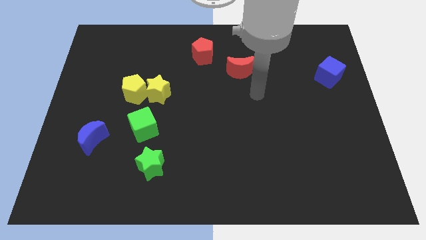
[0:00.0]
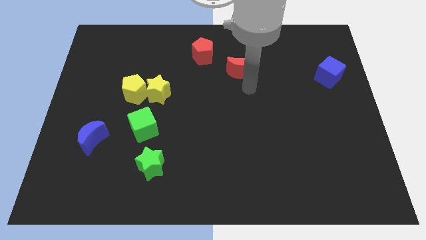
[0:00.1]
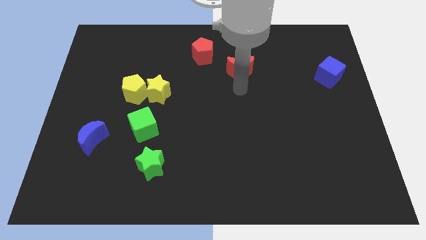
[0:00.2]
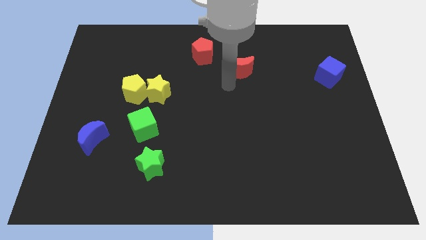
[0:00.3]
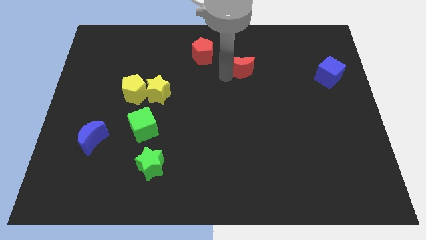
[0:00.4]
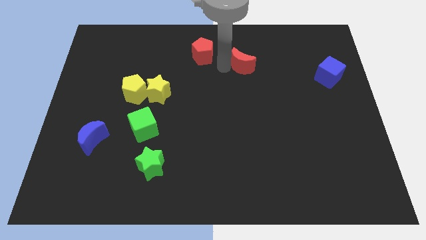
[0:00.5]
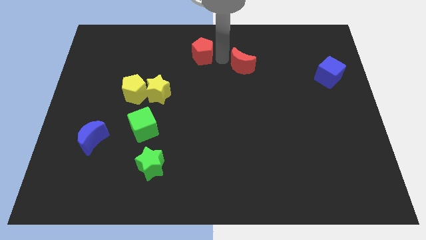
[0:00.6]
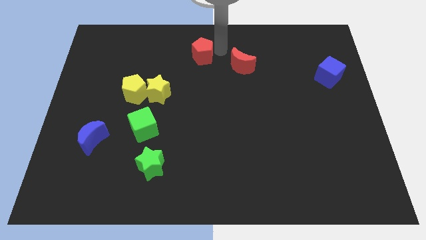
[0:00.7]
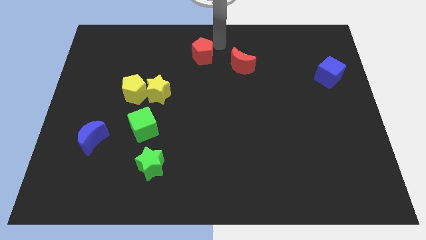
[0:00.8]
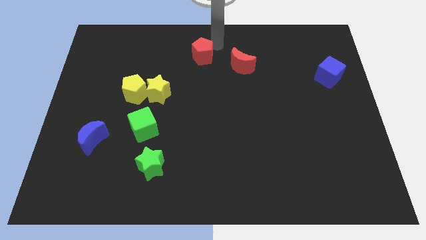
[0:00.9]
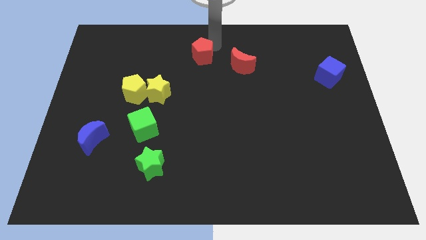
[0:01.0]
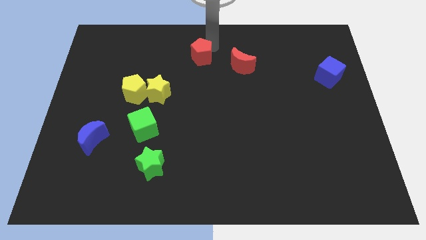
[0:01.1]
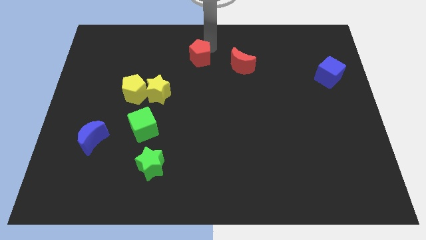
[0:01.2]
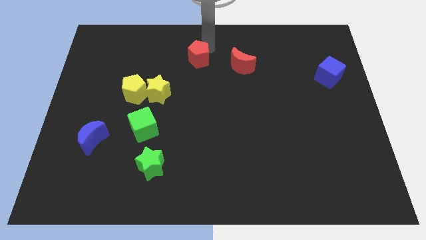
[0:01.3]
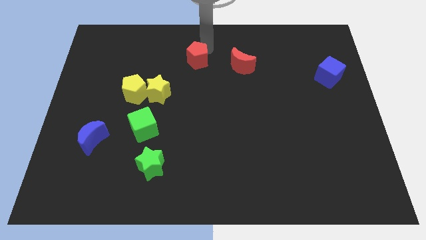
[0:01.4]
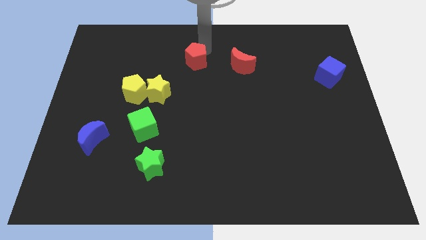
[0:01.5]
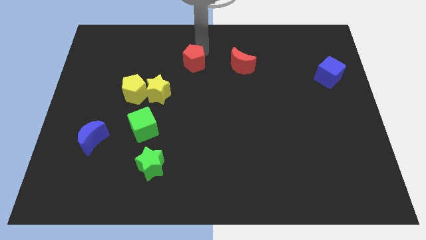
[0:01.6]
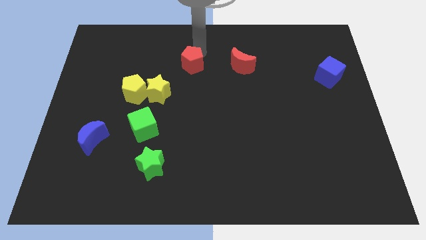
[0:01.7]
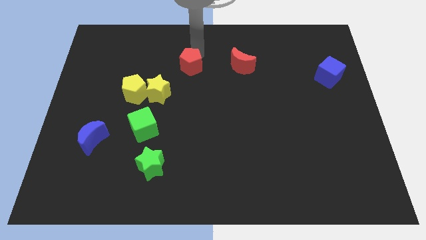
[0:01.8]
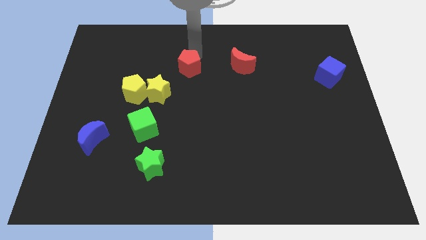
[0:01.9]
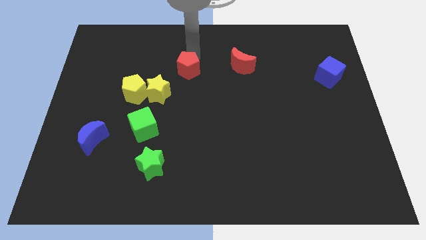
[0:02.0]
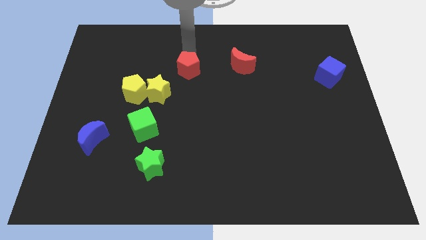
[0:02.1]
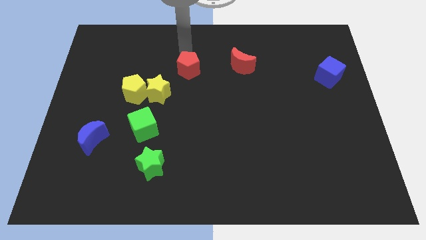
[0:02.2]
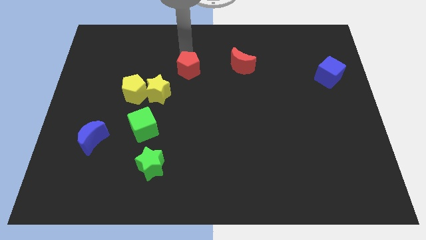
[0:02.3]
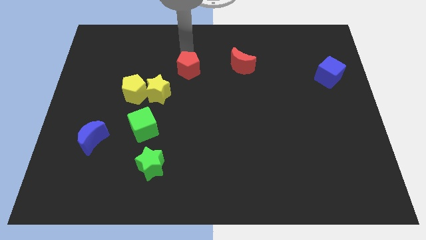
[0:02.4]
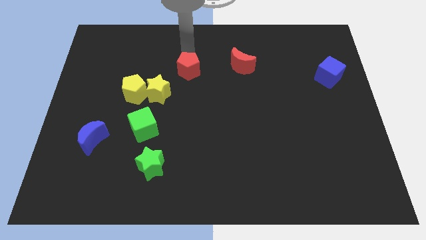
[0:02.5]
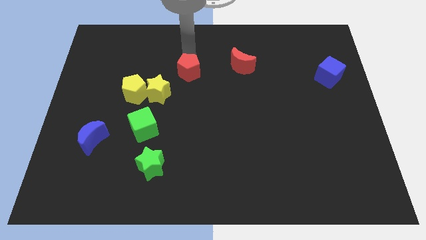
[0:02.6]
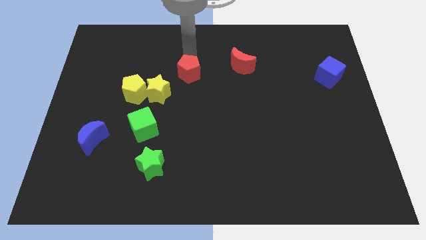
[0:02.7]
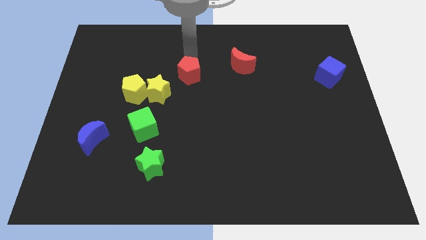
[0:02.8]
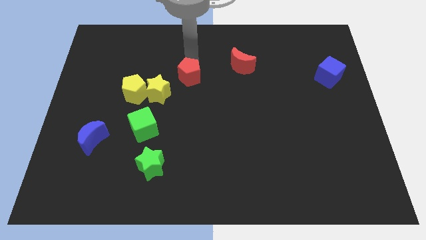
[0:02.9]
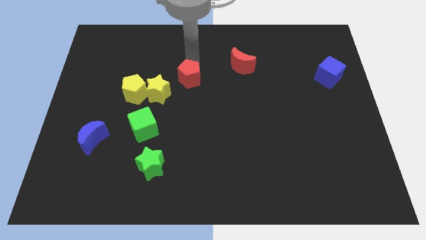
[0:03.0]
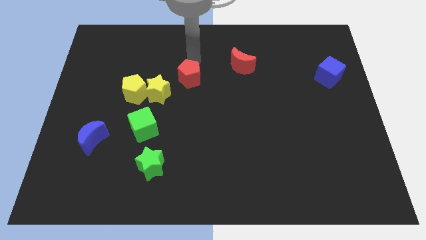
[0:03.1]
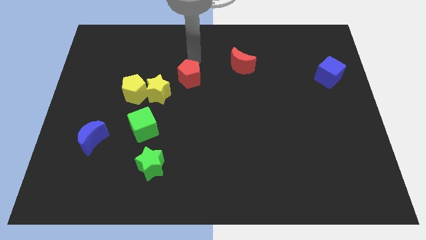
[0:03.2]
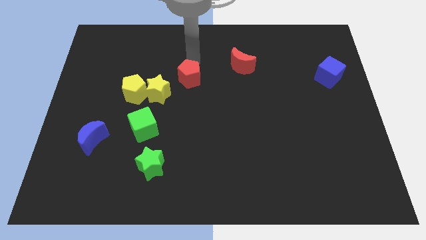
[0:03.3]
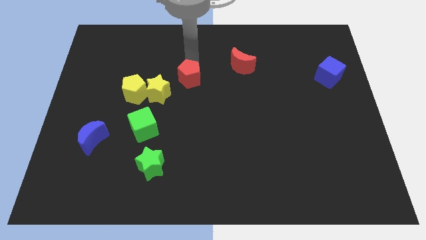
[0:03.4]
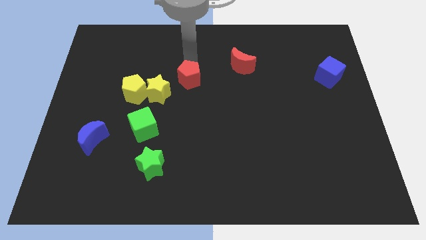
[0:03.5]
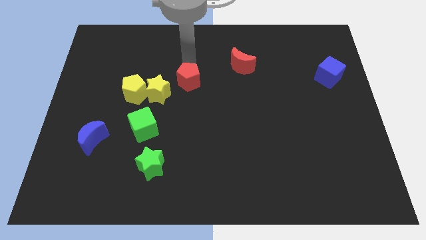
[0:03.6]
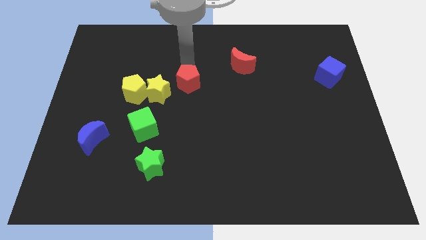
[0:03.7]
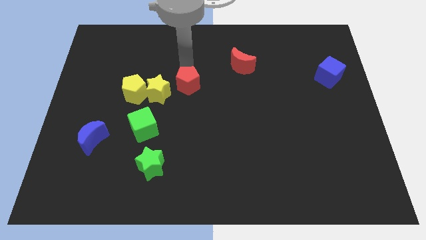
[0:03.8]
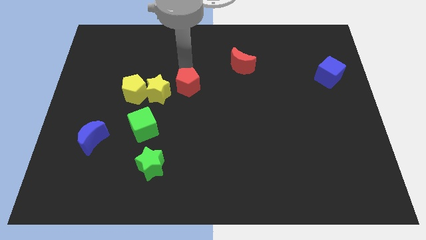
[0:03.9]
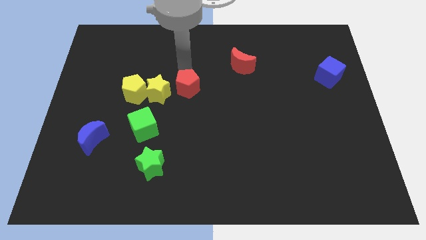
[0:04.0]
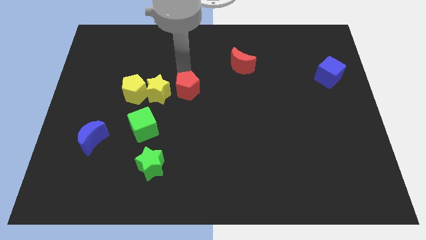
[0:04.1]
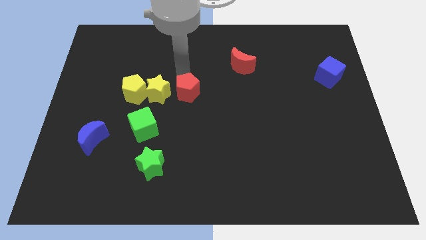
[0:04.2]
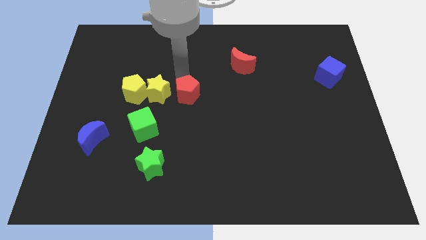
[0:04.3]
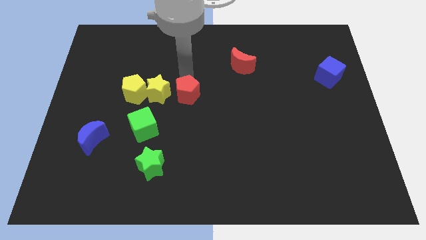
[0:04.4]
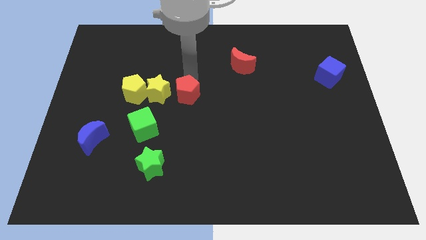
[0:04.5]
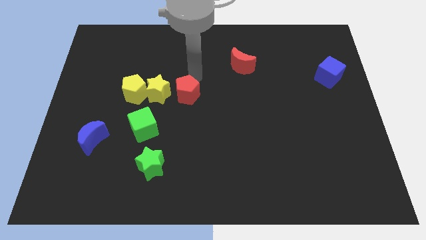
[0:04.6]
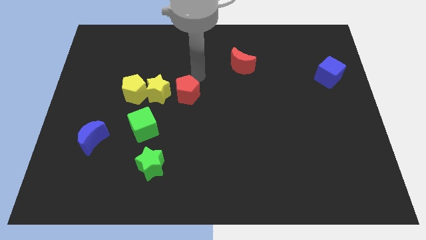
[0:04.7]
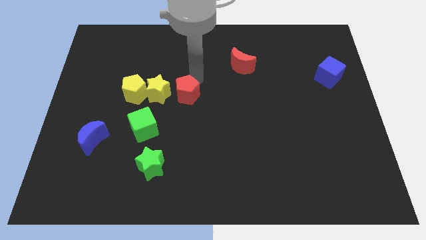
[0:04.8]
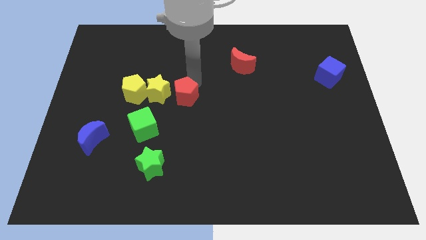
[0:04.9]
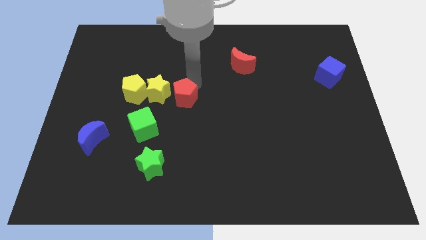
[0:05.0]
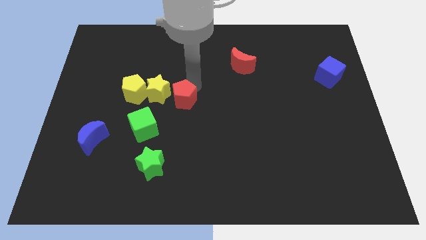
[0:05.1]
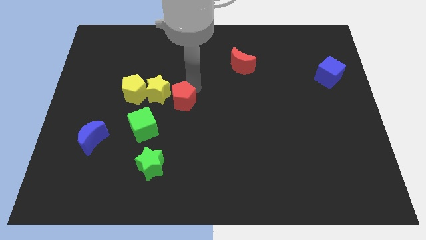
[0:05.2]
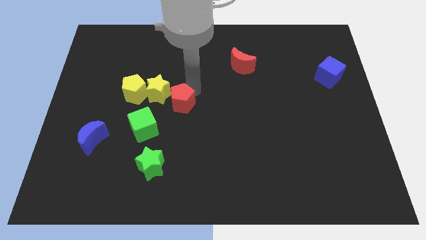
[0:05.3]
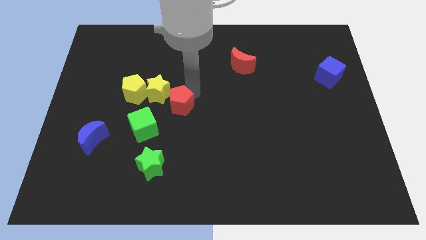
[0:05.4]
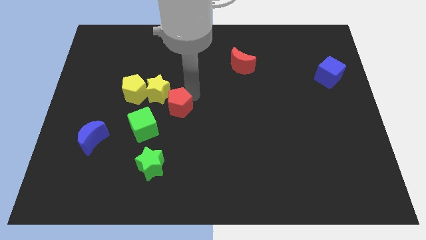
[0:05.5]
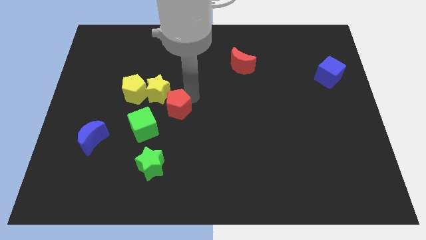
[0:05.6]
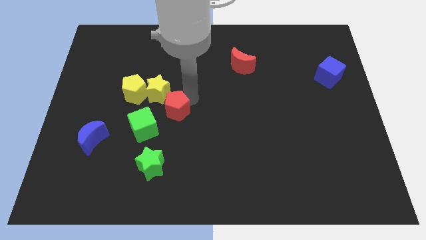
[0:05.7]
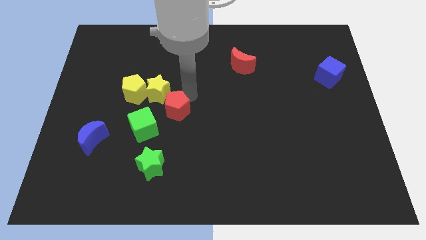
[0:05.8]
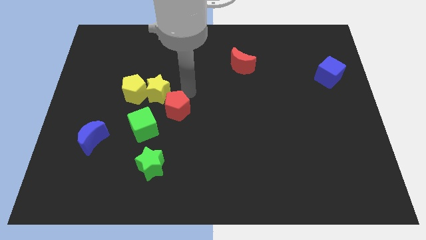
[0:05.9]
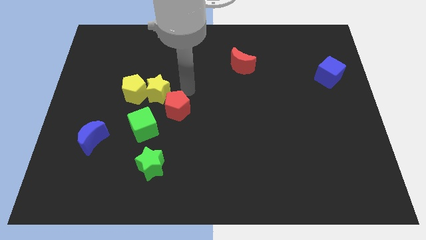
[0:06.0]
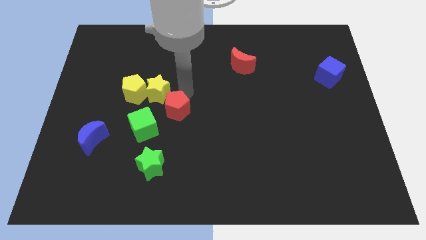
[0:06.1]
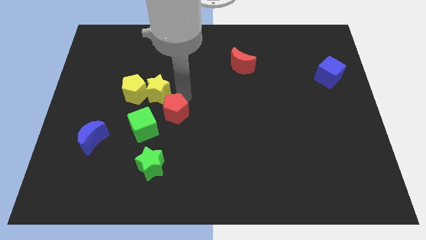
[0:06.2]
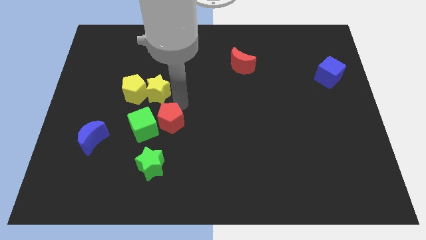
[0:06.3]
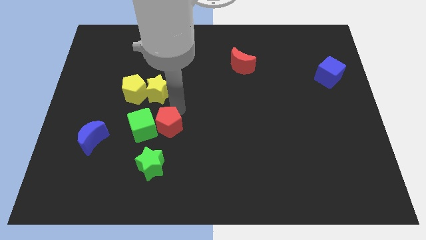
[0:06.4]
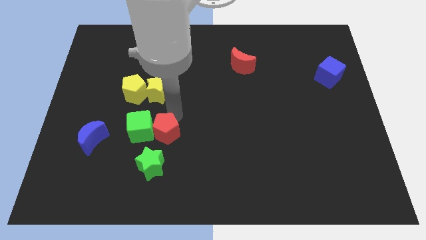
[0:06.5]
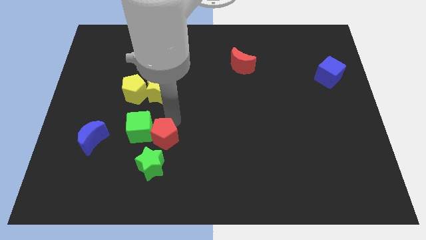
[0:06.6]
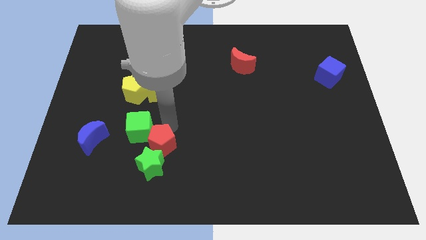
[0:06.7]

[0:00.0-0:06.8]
put the red pentagon to the green star

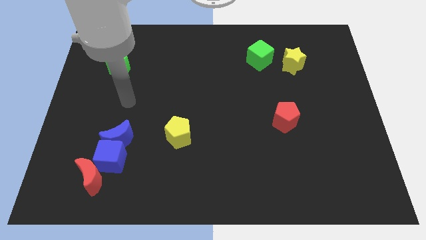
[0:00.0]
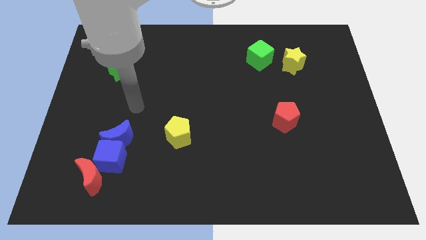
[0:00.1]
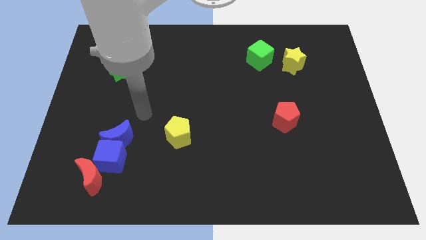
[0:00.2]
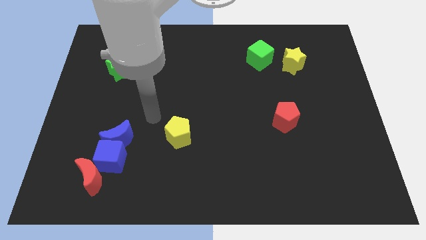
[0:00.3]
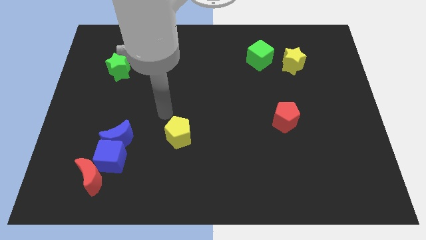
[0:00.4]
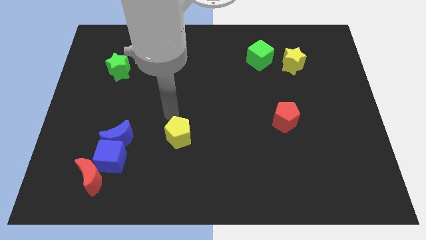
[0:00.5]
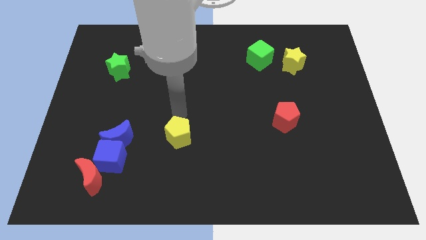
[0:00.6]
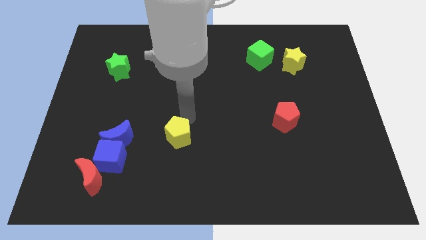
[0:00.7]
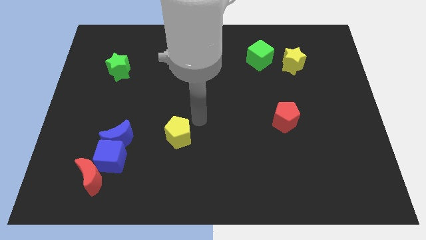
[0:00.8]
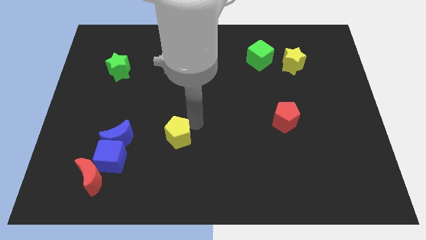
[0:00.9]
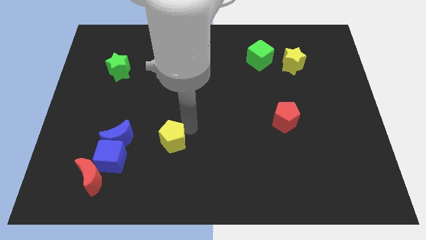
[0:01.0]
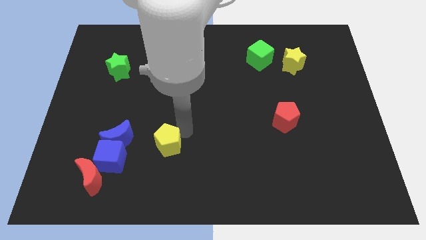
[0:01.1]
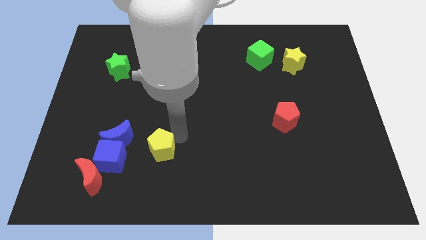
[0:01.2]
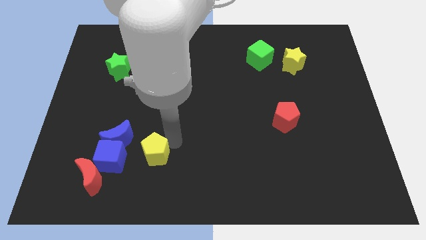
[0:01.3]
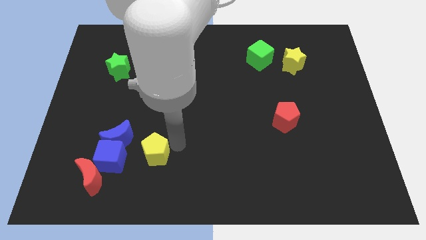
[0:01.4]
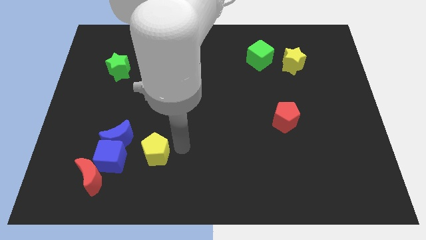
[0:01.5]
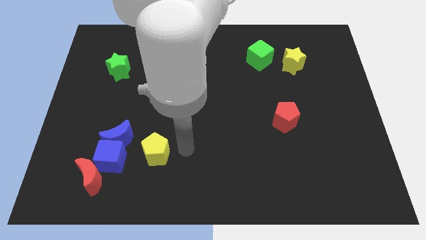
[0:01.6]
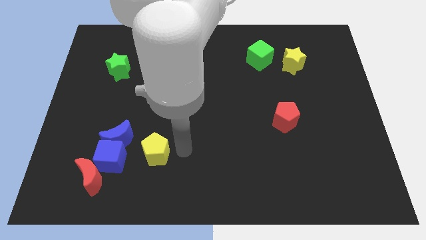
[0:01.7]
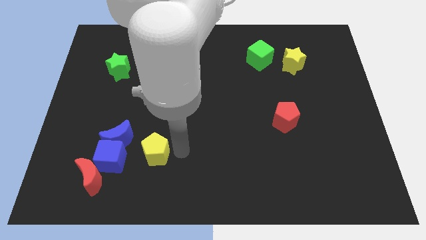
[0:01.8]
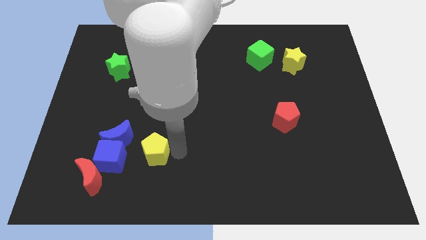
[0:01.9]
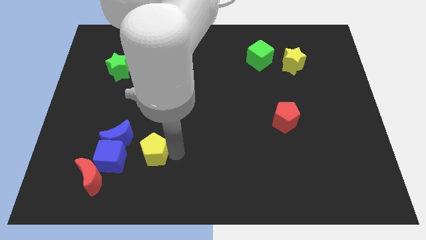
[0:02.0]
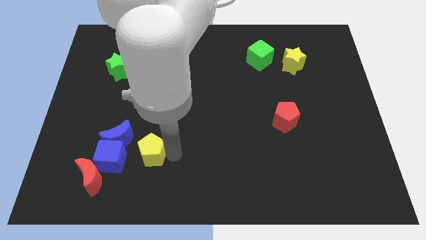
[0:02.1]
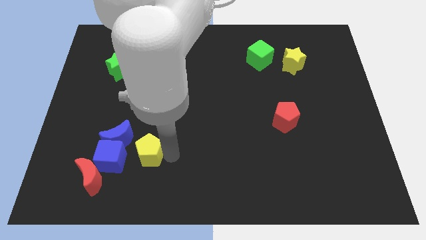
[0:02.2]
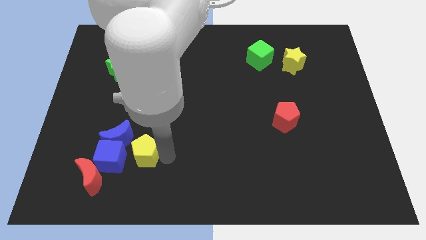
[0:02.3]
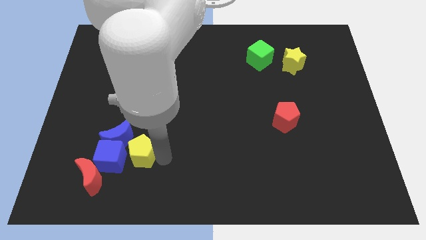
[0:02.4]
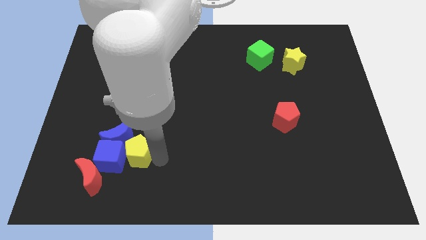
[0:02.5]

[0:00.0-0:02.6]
slide the yellow pentagon close to the blue cube
